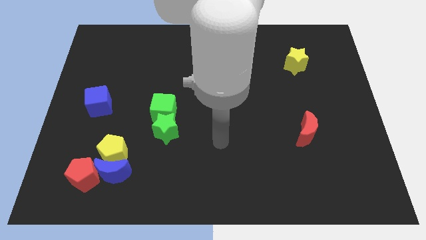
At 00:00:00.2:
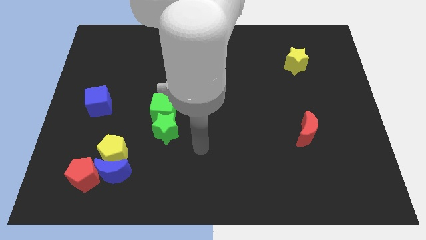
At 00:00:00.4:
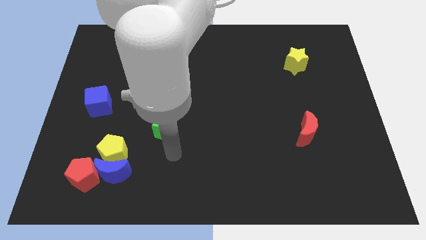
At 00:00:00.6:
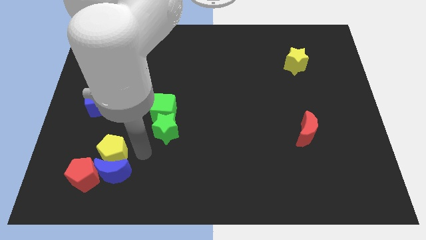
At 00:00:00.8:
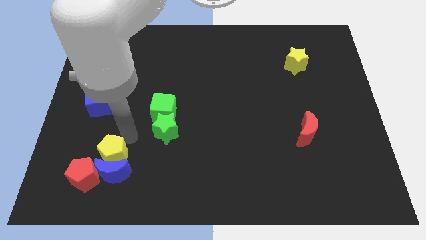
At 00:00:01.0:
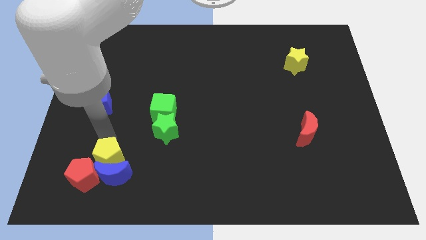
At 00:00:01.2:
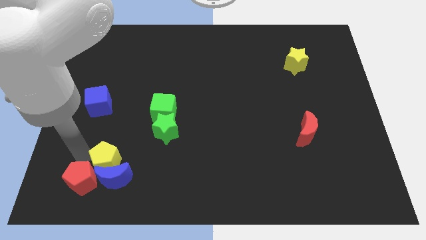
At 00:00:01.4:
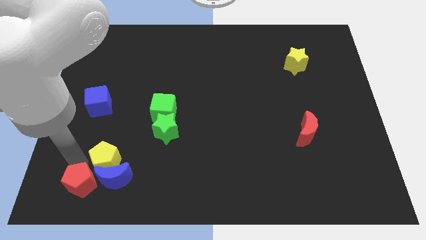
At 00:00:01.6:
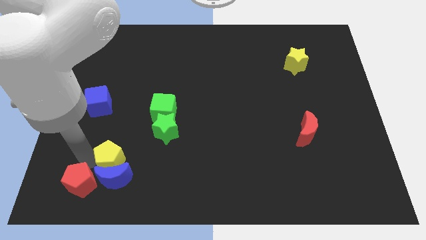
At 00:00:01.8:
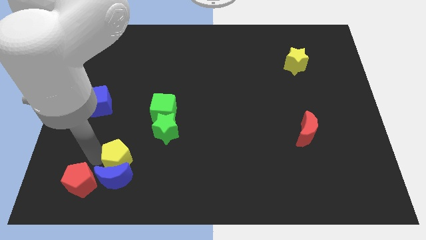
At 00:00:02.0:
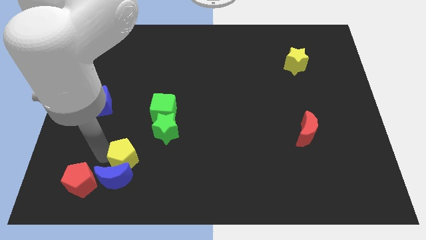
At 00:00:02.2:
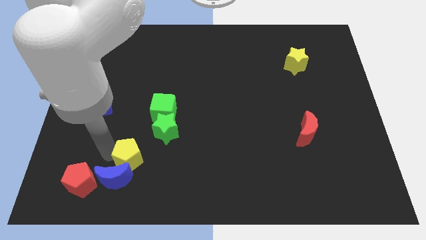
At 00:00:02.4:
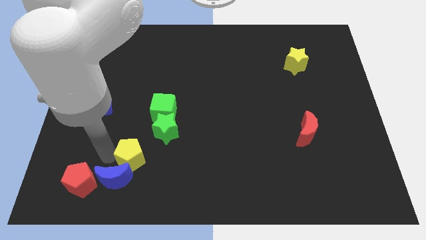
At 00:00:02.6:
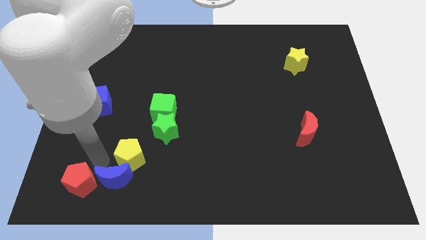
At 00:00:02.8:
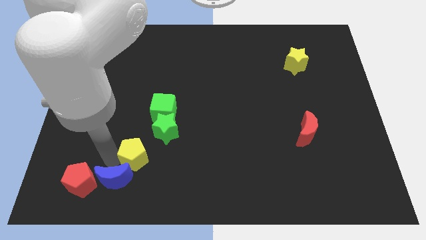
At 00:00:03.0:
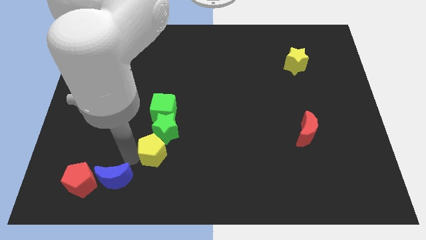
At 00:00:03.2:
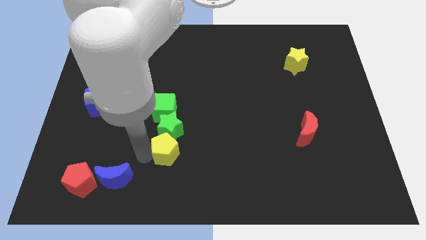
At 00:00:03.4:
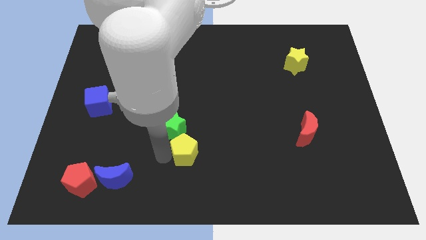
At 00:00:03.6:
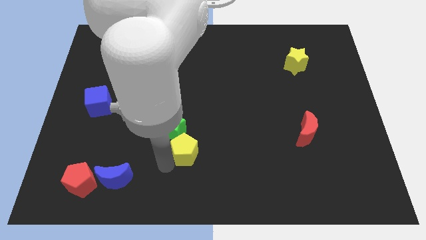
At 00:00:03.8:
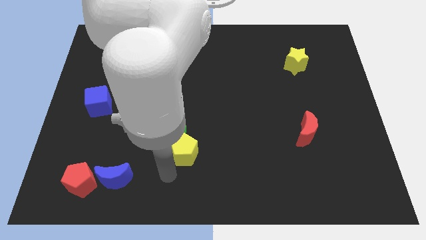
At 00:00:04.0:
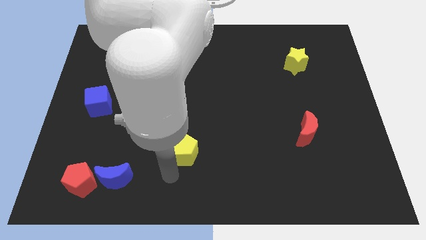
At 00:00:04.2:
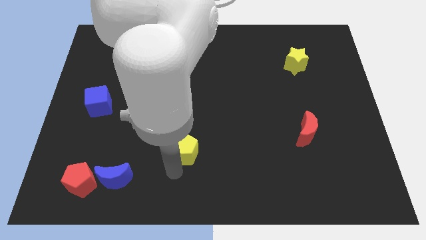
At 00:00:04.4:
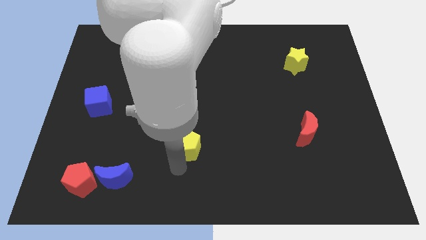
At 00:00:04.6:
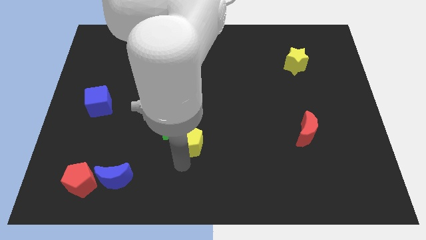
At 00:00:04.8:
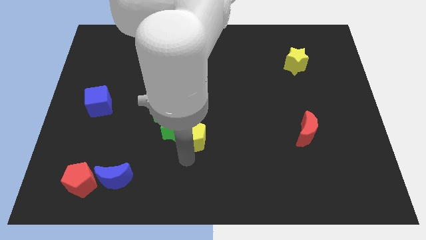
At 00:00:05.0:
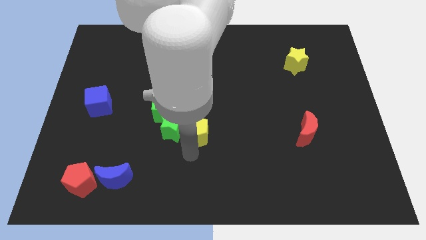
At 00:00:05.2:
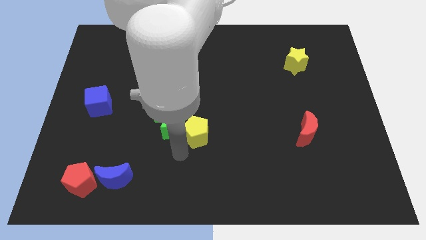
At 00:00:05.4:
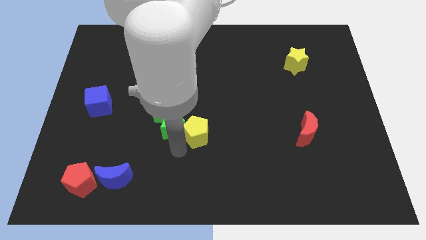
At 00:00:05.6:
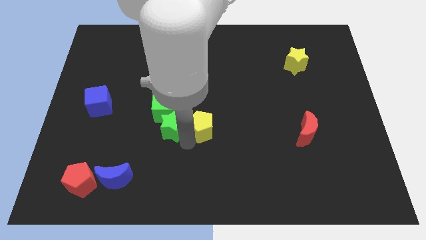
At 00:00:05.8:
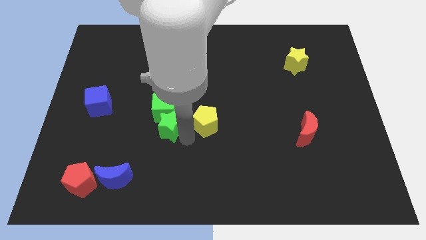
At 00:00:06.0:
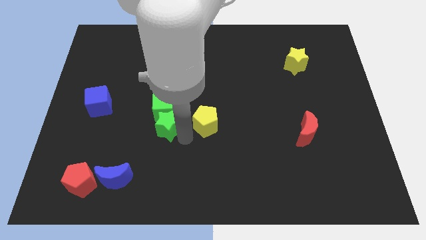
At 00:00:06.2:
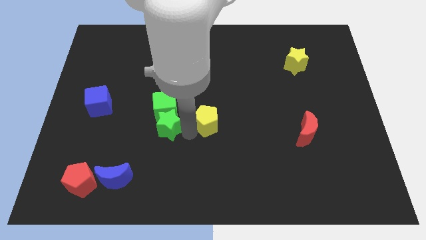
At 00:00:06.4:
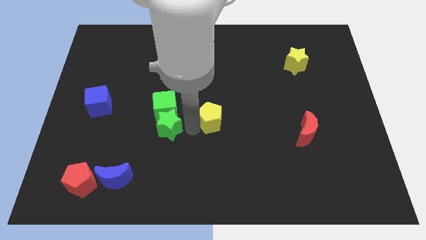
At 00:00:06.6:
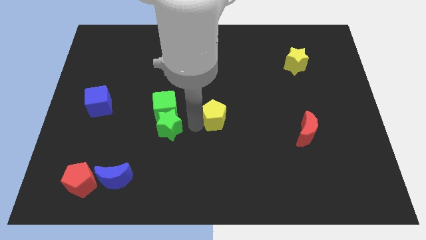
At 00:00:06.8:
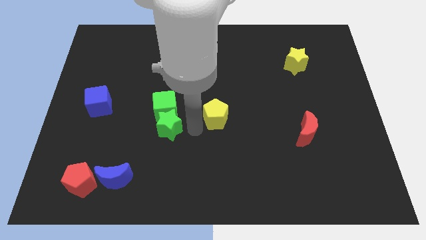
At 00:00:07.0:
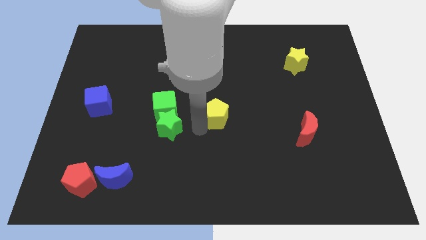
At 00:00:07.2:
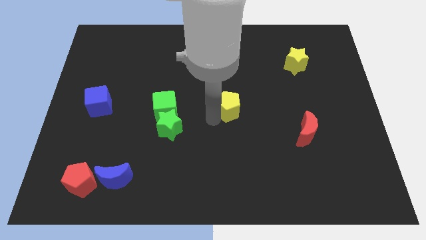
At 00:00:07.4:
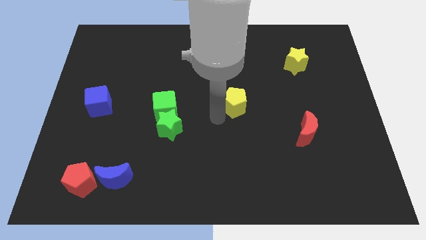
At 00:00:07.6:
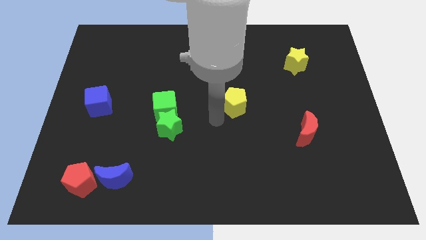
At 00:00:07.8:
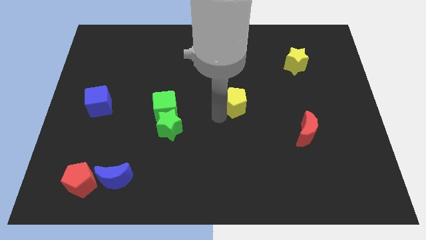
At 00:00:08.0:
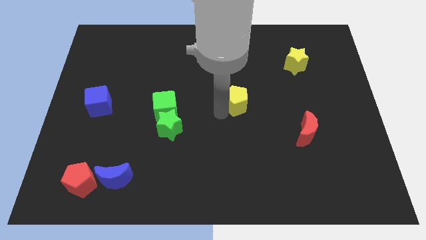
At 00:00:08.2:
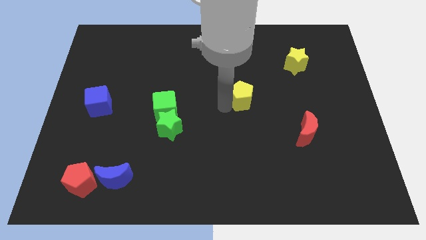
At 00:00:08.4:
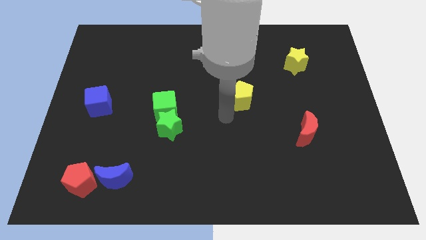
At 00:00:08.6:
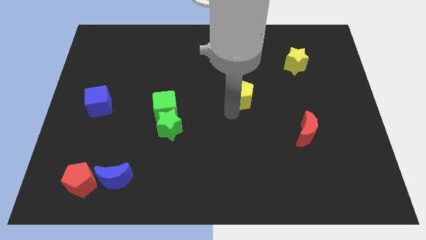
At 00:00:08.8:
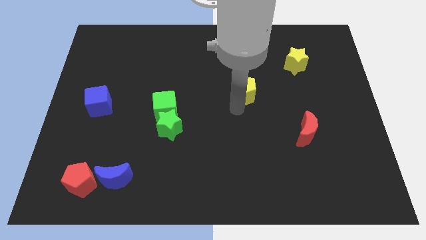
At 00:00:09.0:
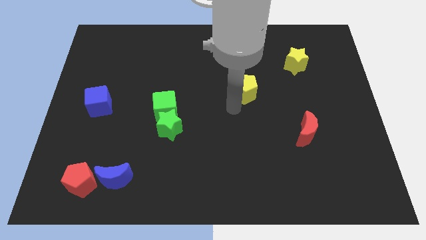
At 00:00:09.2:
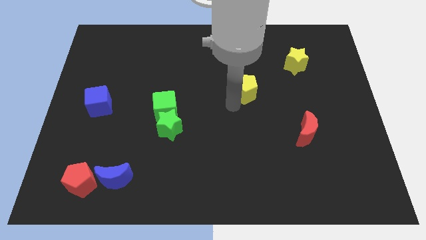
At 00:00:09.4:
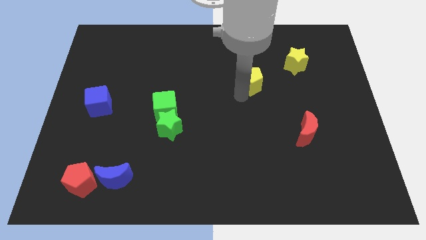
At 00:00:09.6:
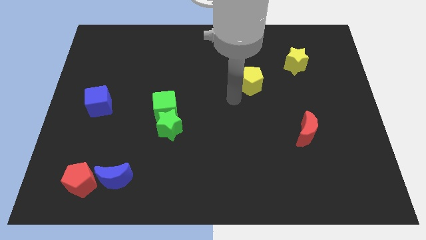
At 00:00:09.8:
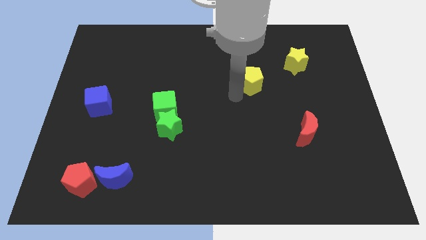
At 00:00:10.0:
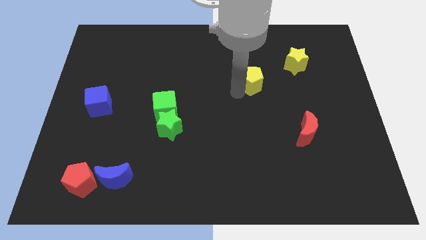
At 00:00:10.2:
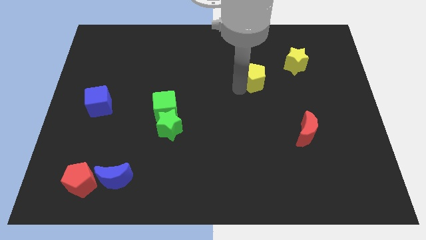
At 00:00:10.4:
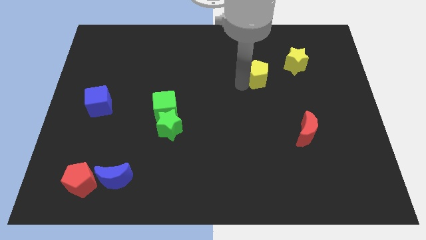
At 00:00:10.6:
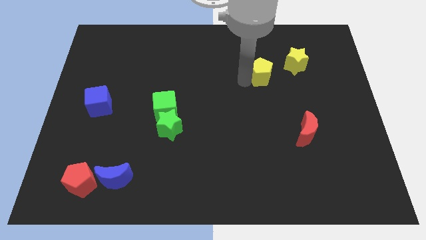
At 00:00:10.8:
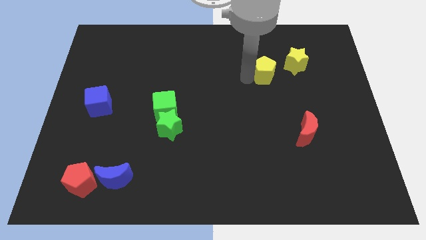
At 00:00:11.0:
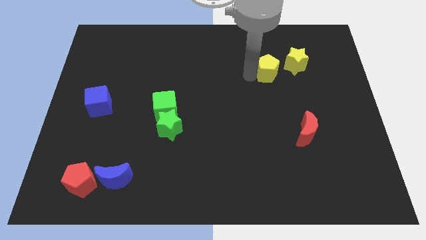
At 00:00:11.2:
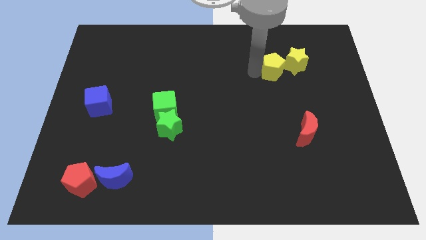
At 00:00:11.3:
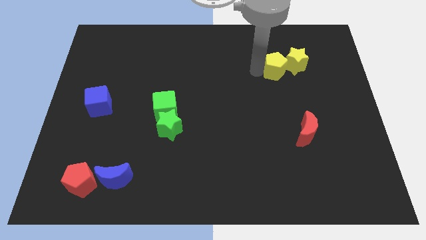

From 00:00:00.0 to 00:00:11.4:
put the yellow pentagon next to the yellow star

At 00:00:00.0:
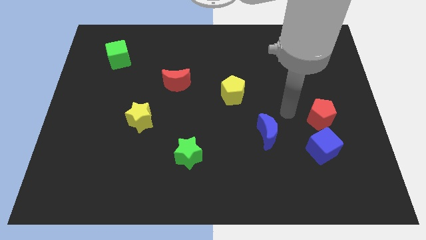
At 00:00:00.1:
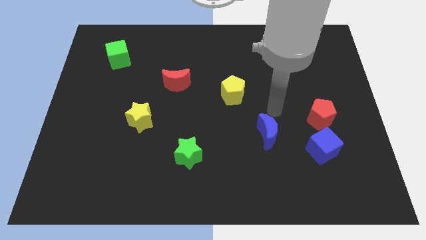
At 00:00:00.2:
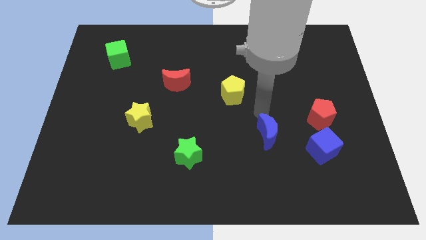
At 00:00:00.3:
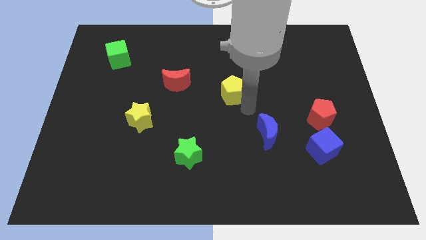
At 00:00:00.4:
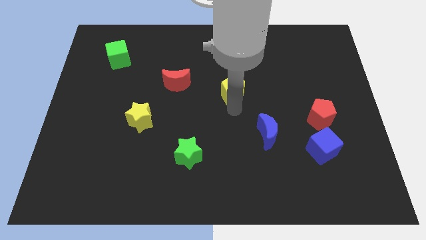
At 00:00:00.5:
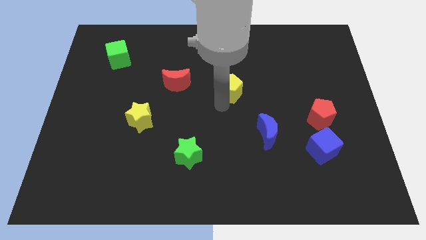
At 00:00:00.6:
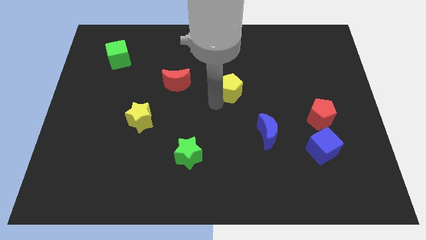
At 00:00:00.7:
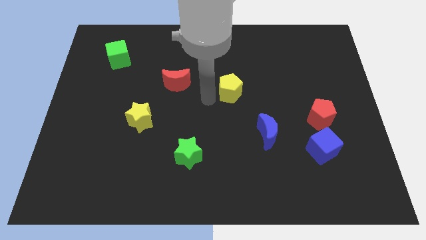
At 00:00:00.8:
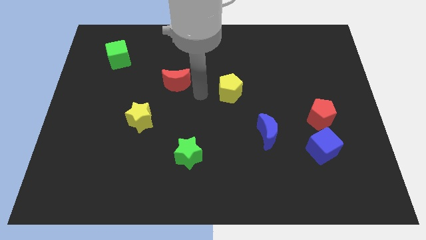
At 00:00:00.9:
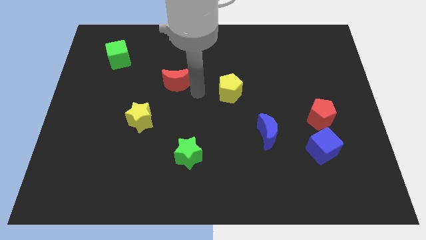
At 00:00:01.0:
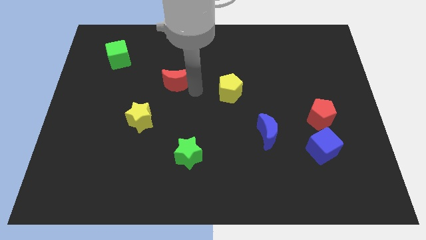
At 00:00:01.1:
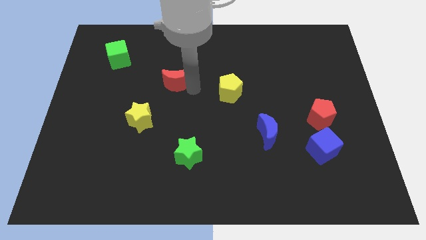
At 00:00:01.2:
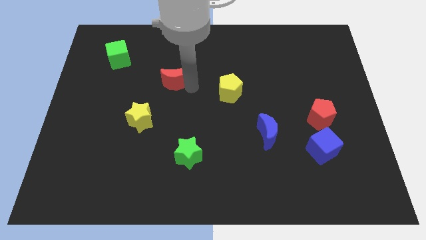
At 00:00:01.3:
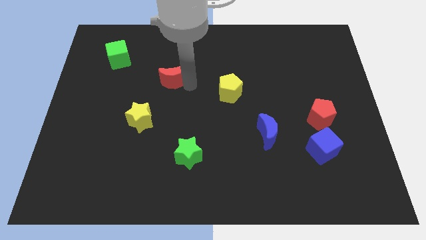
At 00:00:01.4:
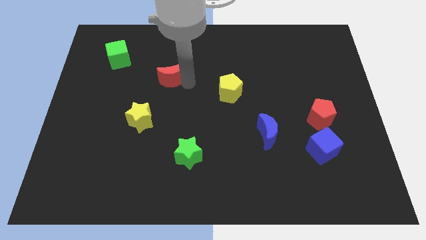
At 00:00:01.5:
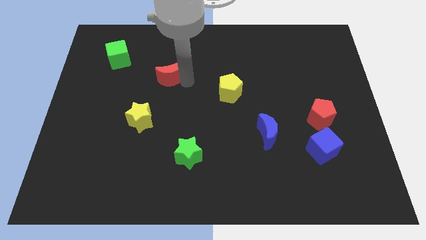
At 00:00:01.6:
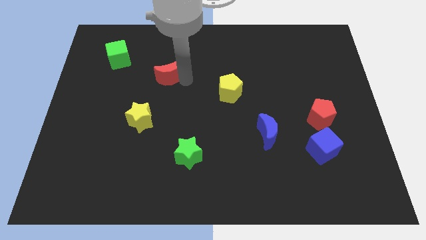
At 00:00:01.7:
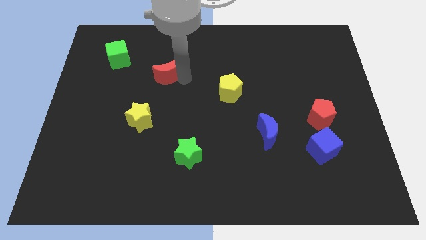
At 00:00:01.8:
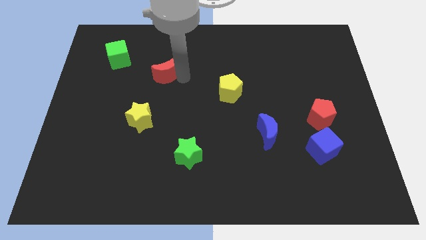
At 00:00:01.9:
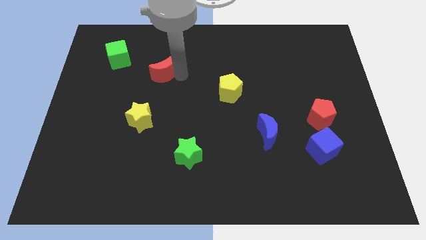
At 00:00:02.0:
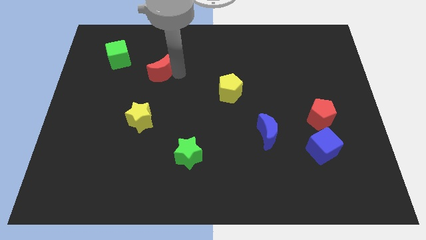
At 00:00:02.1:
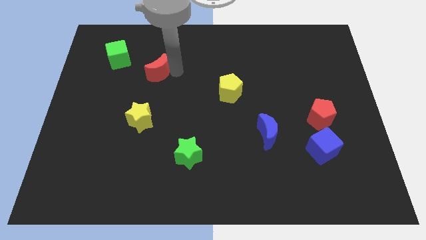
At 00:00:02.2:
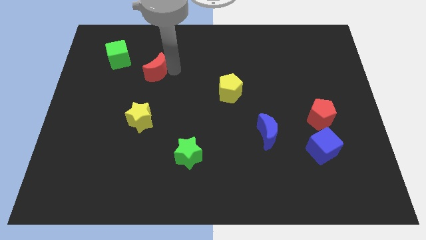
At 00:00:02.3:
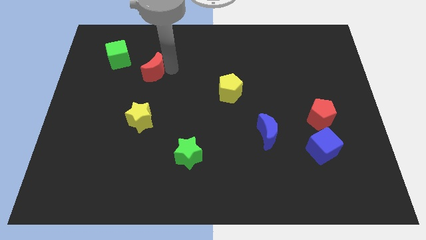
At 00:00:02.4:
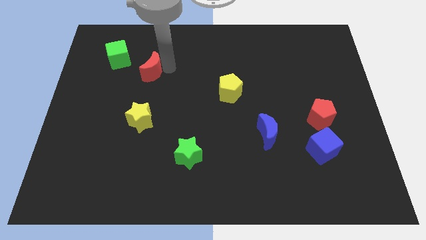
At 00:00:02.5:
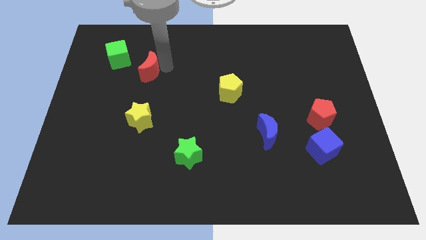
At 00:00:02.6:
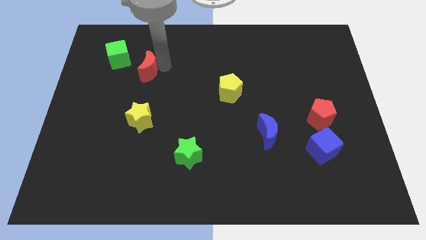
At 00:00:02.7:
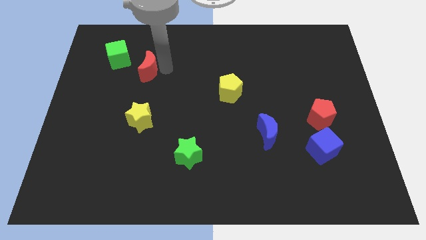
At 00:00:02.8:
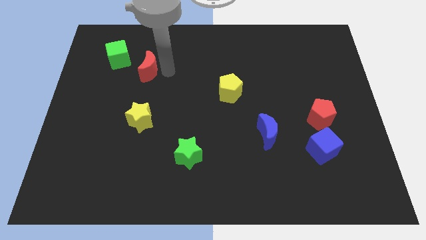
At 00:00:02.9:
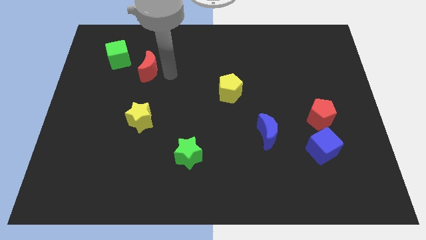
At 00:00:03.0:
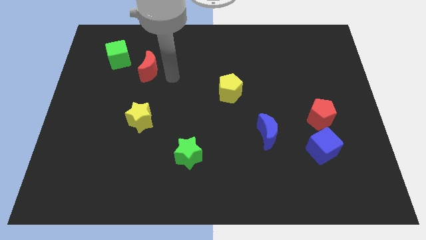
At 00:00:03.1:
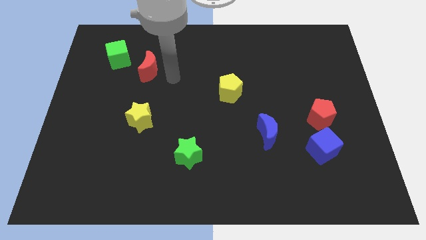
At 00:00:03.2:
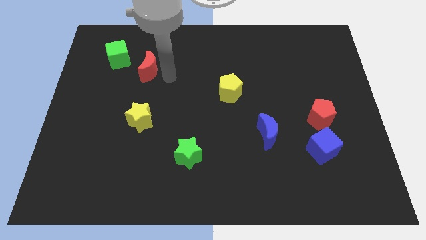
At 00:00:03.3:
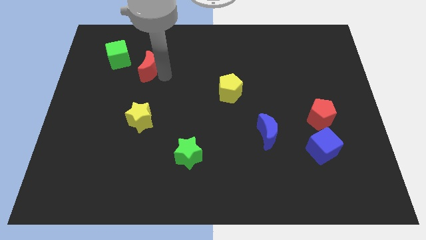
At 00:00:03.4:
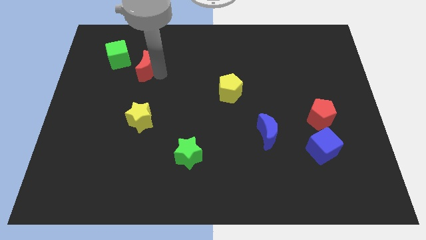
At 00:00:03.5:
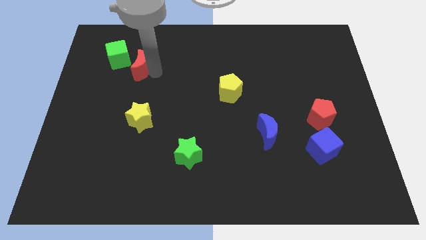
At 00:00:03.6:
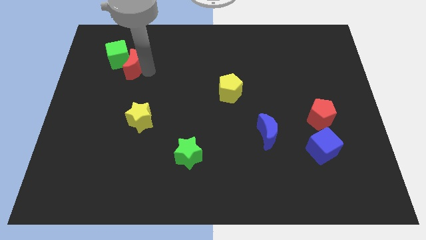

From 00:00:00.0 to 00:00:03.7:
put the red moon next to the green cube
